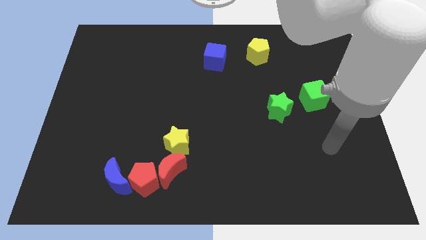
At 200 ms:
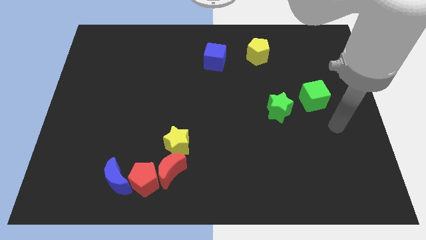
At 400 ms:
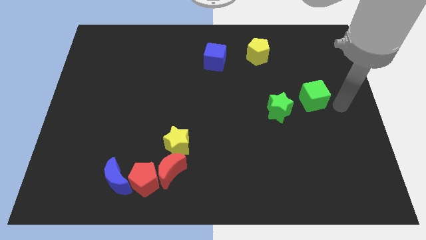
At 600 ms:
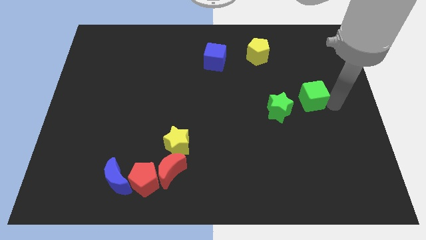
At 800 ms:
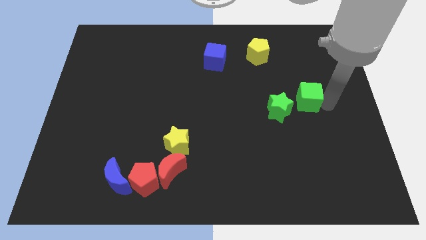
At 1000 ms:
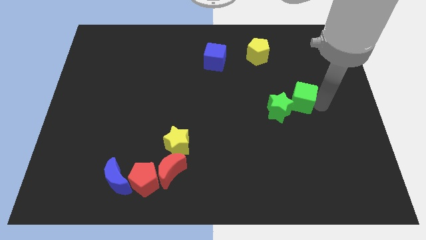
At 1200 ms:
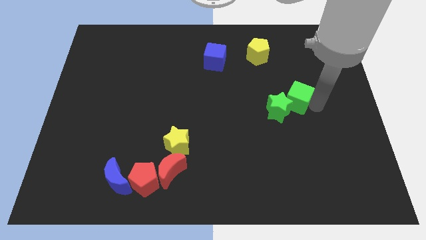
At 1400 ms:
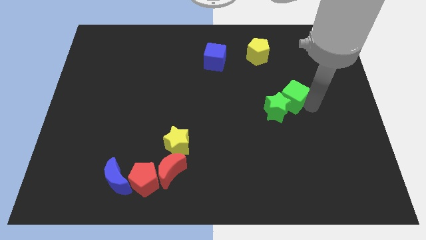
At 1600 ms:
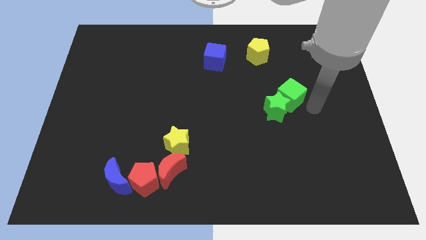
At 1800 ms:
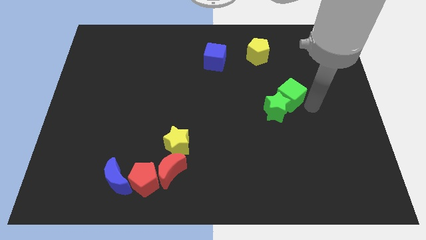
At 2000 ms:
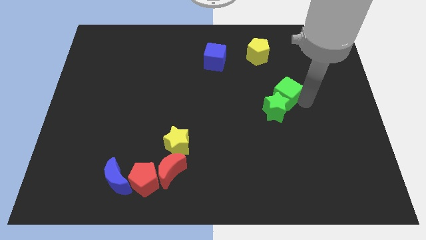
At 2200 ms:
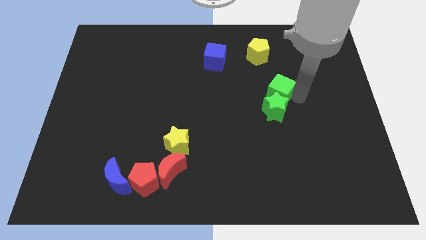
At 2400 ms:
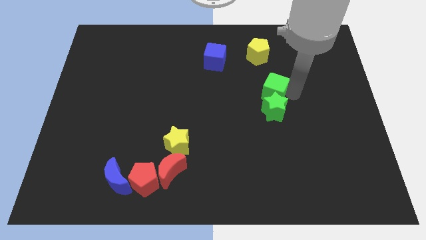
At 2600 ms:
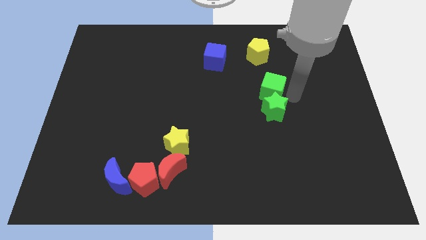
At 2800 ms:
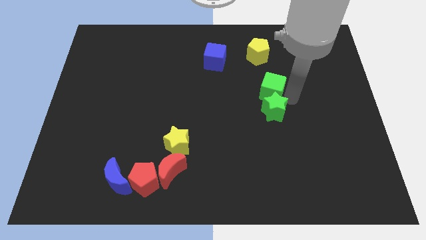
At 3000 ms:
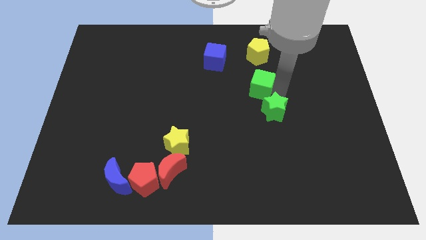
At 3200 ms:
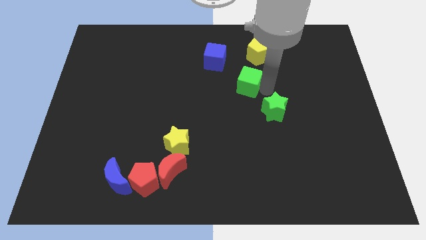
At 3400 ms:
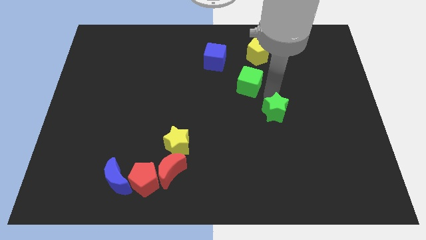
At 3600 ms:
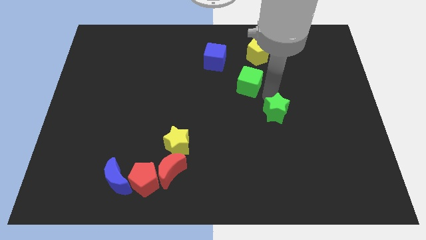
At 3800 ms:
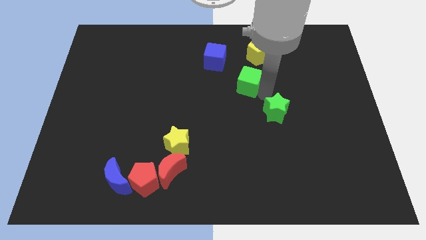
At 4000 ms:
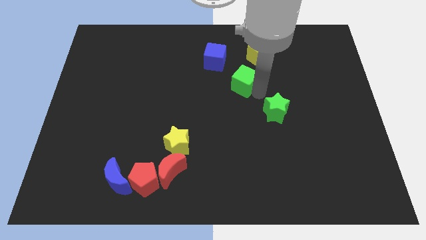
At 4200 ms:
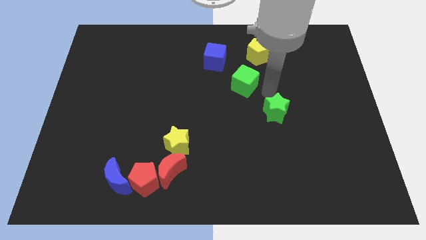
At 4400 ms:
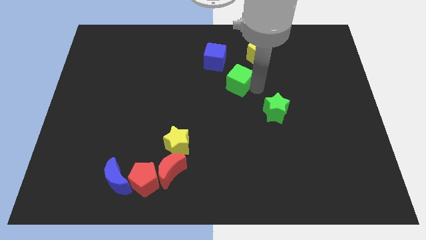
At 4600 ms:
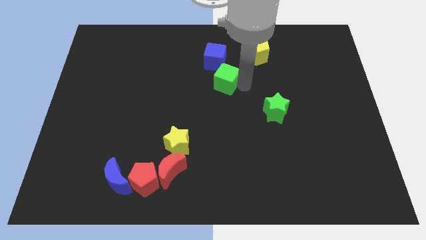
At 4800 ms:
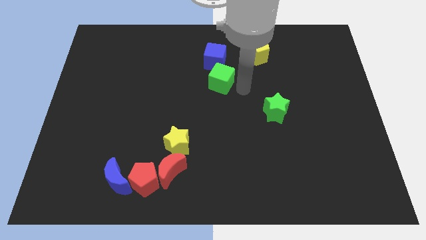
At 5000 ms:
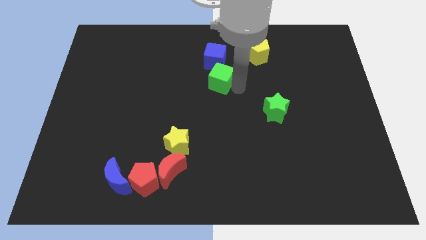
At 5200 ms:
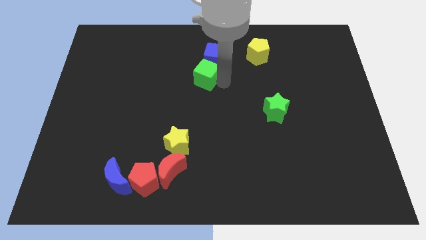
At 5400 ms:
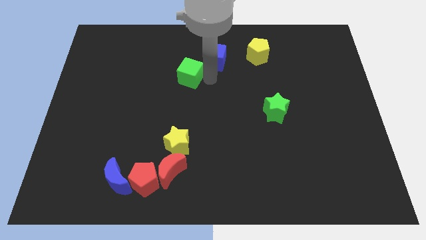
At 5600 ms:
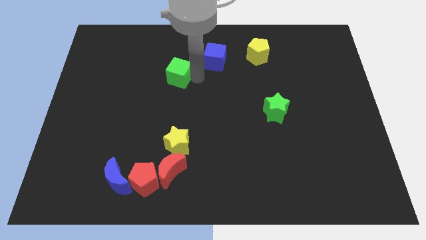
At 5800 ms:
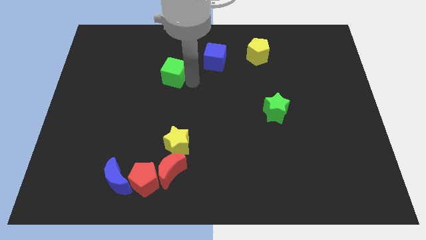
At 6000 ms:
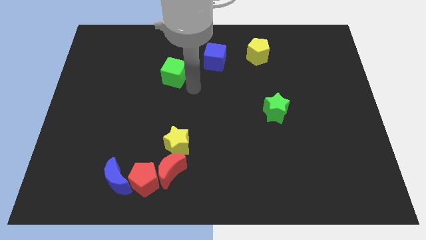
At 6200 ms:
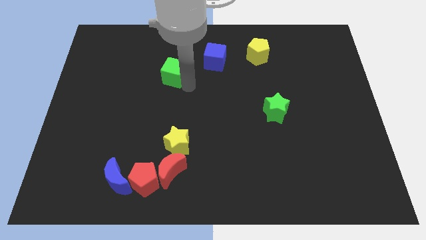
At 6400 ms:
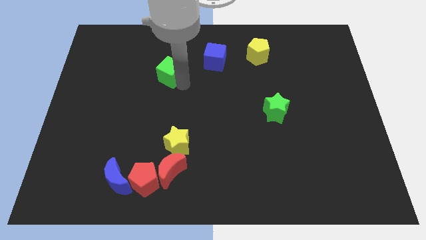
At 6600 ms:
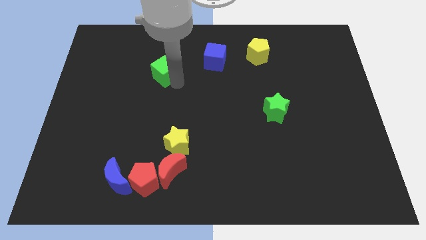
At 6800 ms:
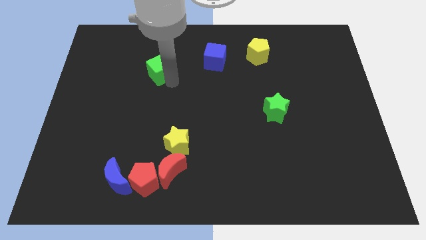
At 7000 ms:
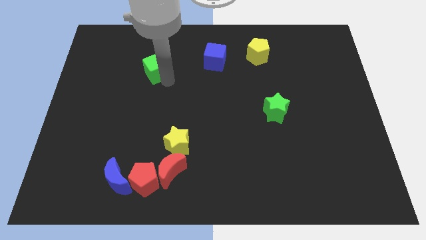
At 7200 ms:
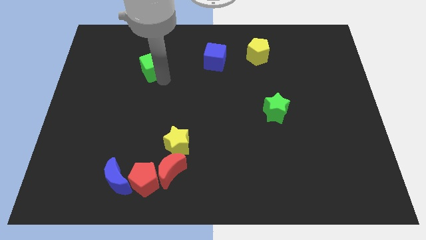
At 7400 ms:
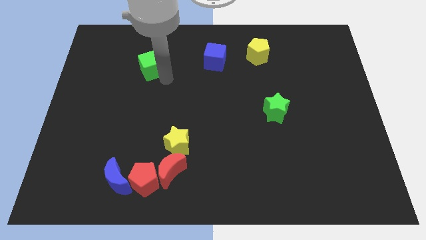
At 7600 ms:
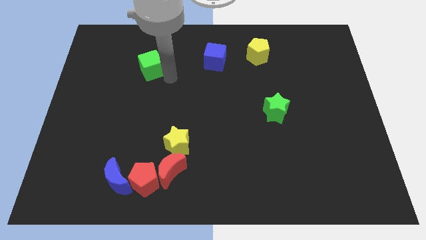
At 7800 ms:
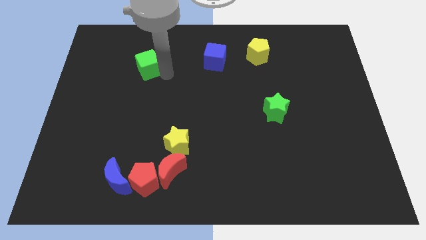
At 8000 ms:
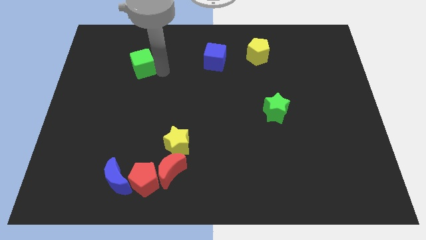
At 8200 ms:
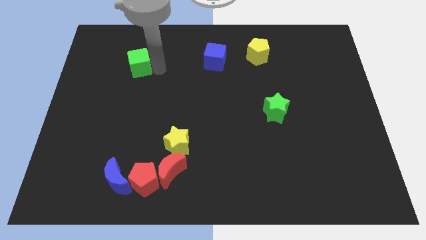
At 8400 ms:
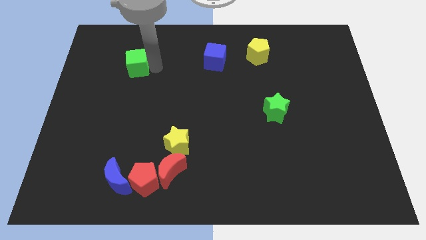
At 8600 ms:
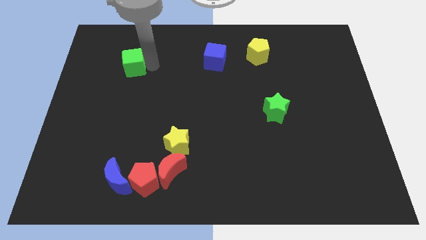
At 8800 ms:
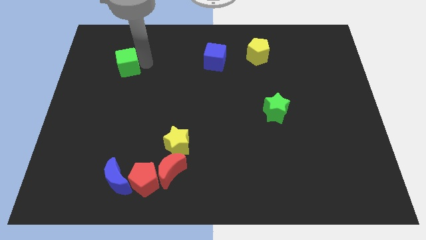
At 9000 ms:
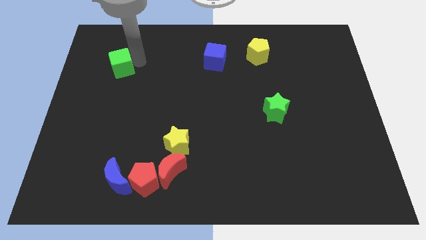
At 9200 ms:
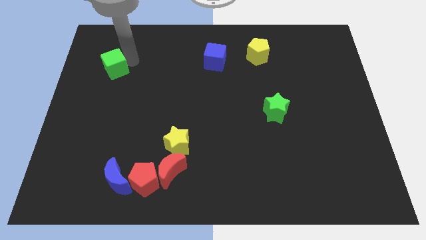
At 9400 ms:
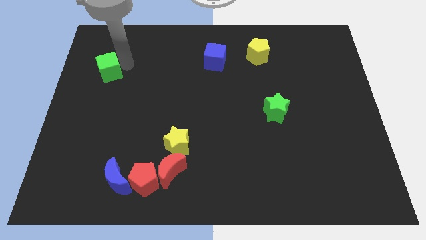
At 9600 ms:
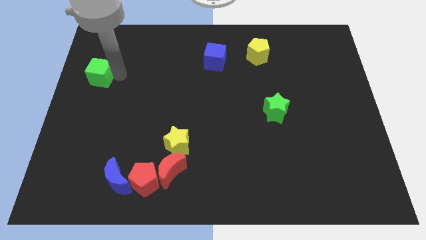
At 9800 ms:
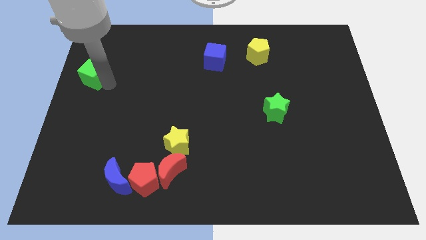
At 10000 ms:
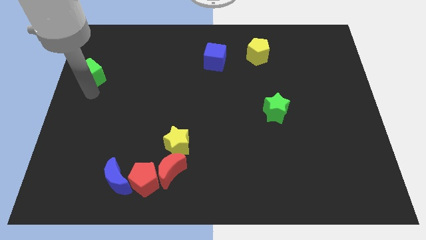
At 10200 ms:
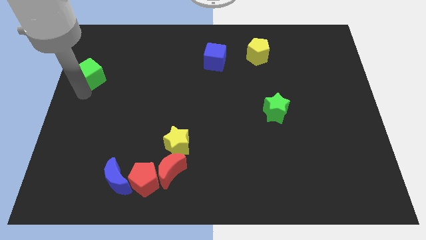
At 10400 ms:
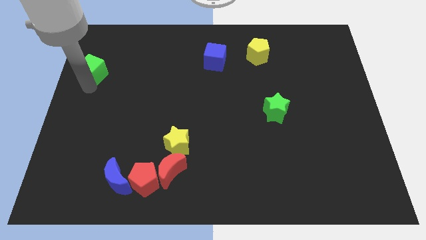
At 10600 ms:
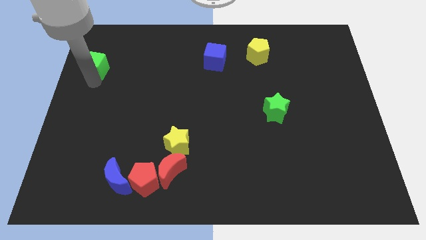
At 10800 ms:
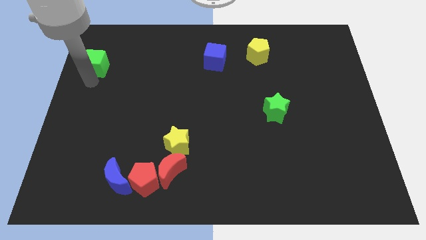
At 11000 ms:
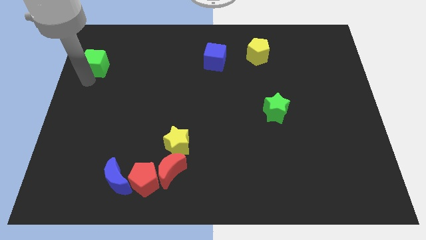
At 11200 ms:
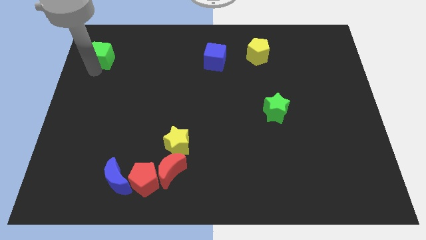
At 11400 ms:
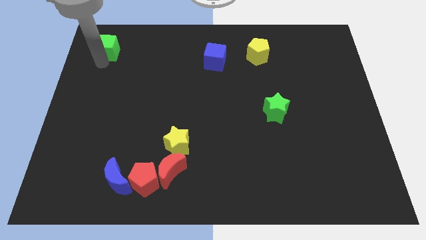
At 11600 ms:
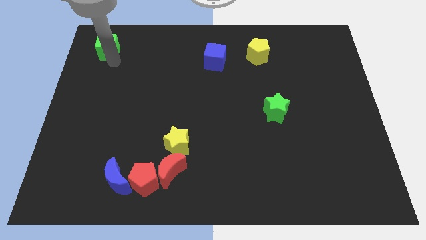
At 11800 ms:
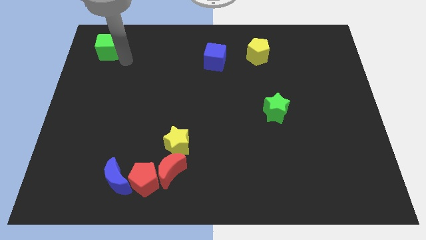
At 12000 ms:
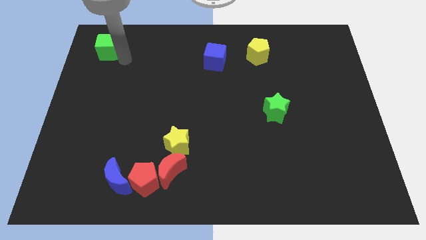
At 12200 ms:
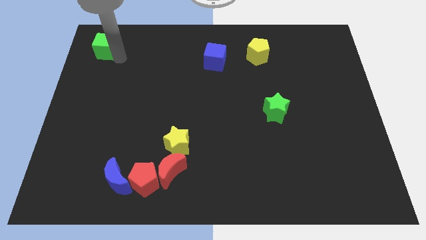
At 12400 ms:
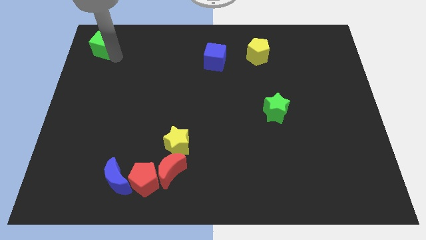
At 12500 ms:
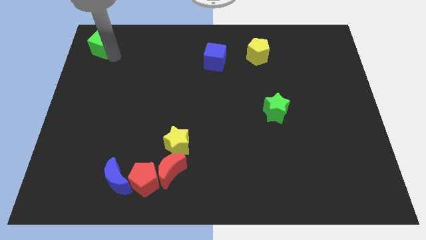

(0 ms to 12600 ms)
push the green cube to the top left

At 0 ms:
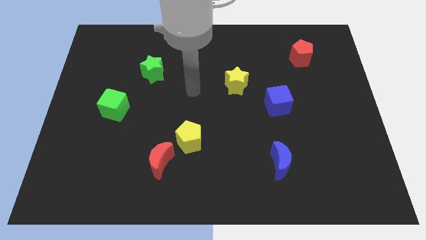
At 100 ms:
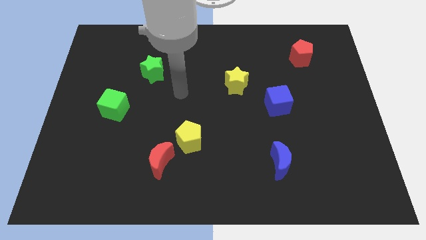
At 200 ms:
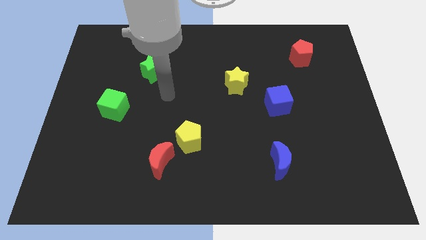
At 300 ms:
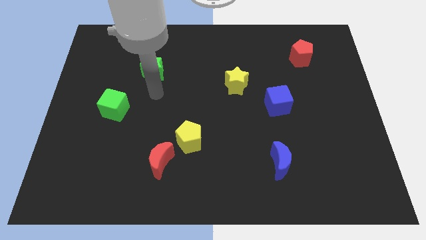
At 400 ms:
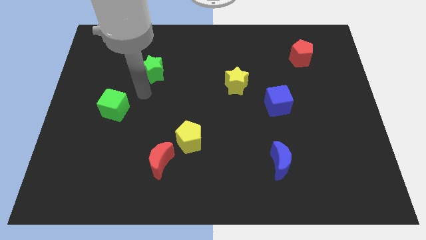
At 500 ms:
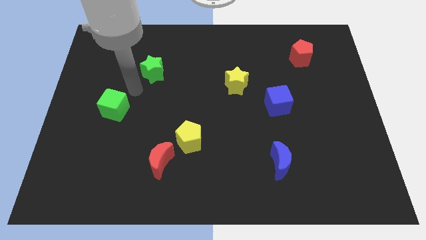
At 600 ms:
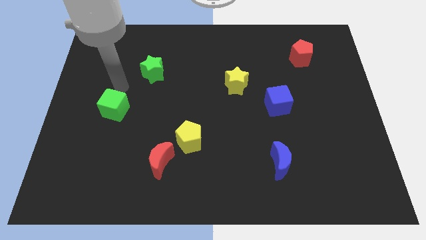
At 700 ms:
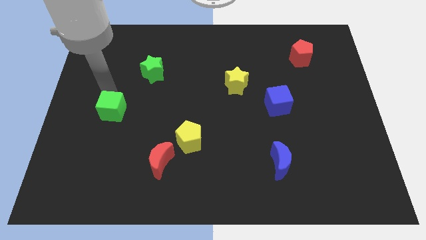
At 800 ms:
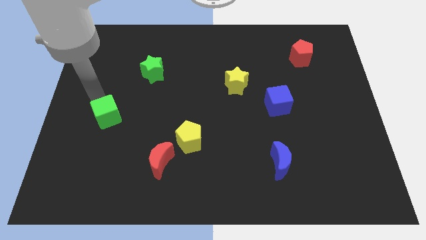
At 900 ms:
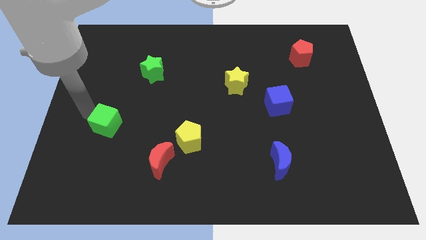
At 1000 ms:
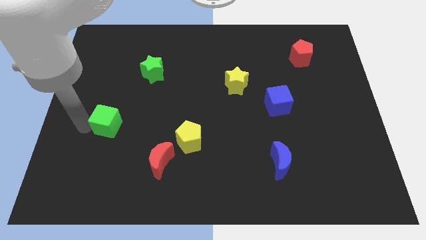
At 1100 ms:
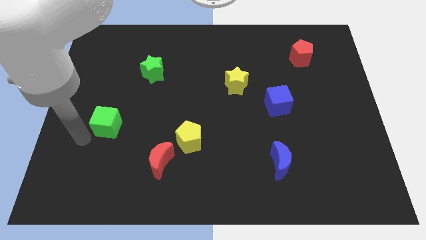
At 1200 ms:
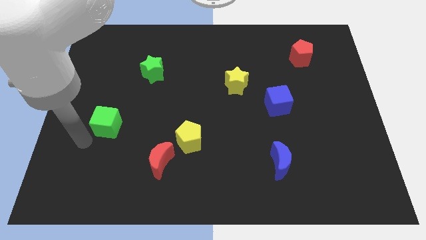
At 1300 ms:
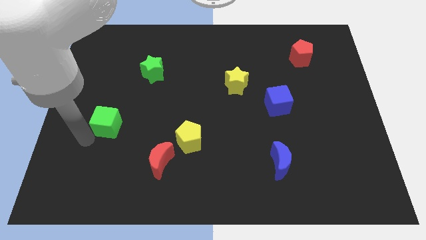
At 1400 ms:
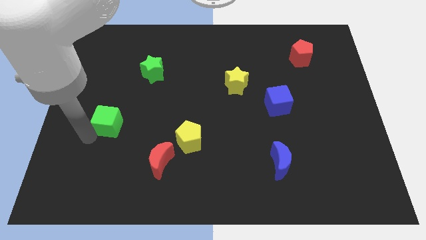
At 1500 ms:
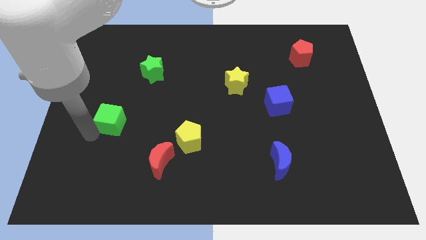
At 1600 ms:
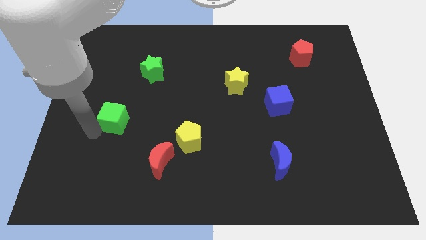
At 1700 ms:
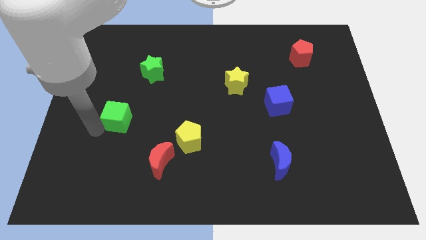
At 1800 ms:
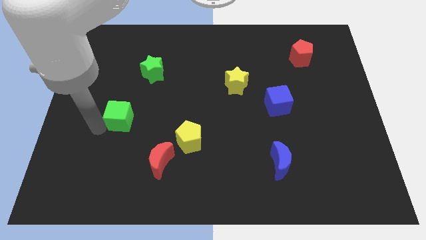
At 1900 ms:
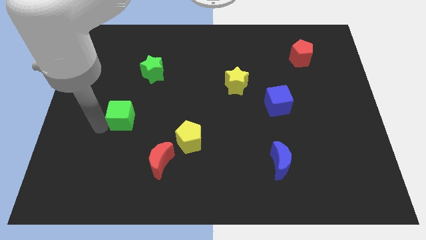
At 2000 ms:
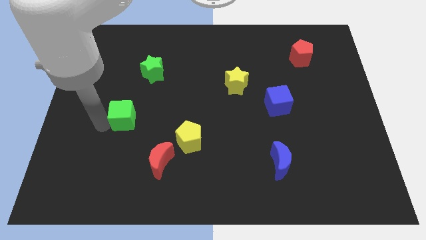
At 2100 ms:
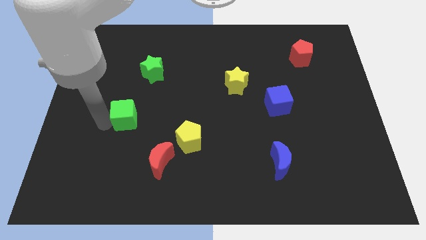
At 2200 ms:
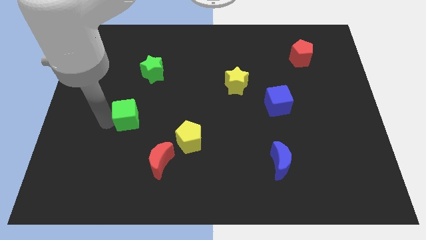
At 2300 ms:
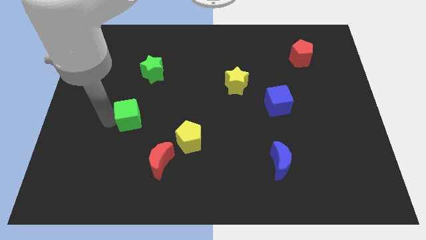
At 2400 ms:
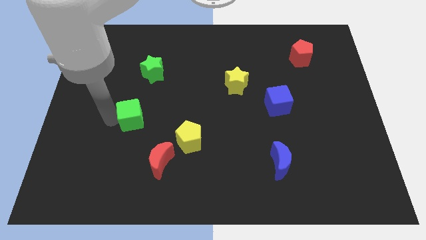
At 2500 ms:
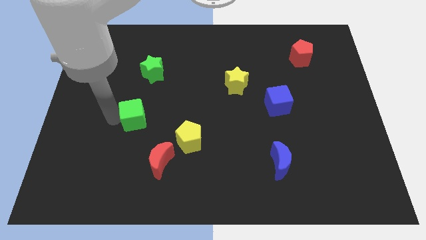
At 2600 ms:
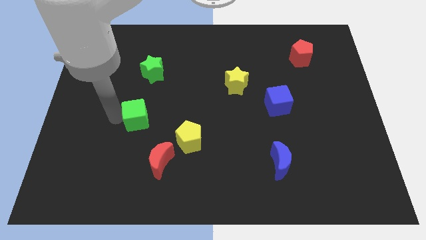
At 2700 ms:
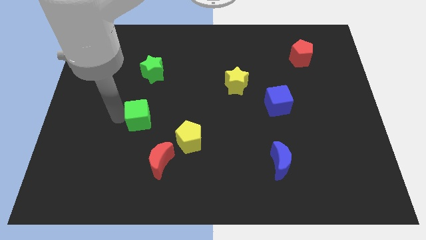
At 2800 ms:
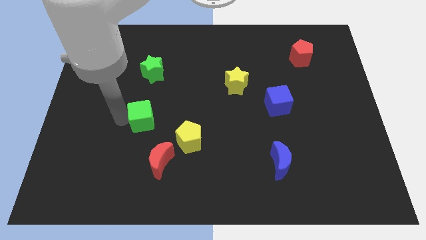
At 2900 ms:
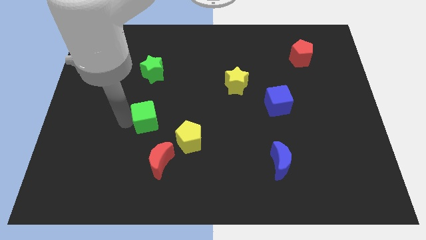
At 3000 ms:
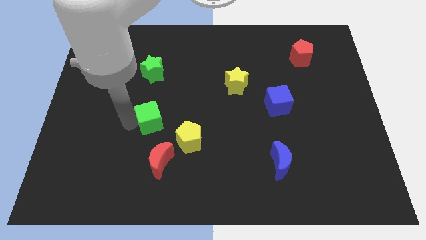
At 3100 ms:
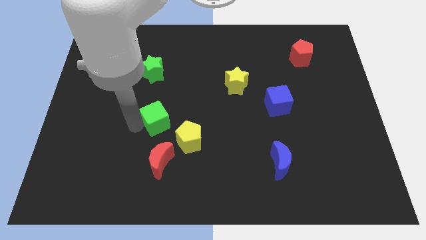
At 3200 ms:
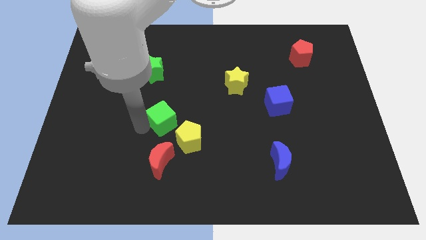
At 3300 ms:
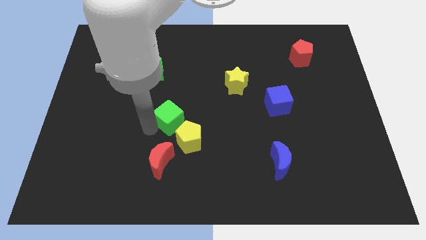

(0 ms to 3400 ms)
push the green cube to the center
